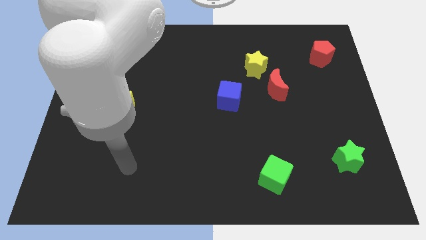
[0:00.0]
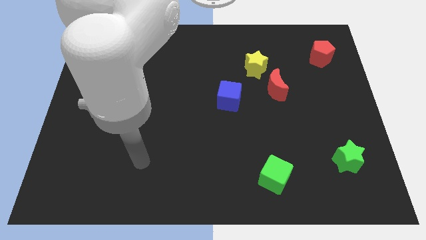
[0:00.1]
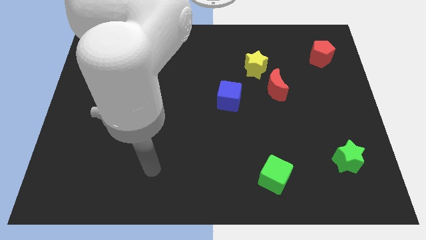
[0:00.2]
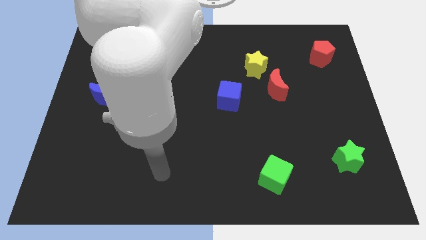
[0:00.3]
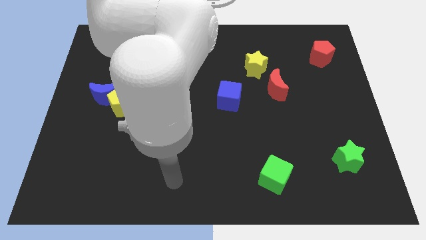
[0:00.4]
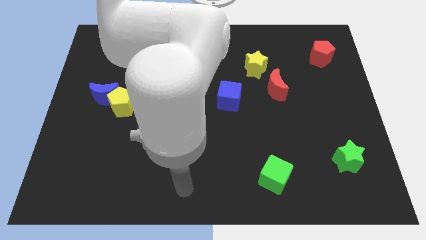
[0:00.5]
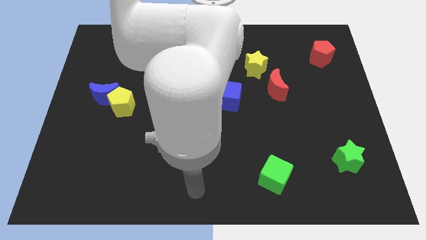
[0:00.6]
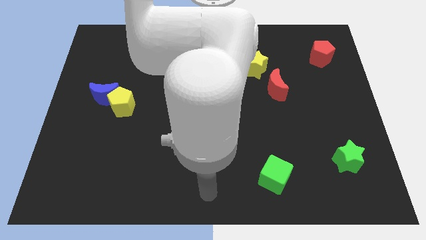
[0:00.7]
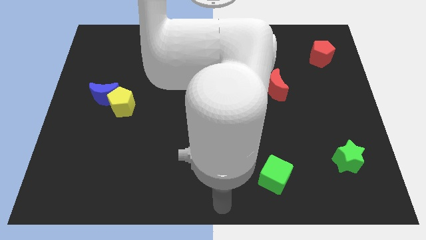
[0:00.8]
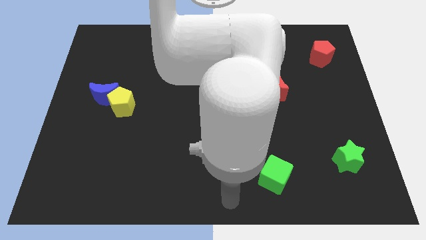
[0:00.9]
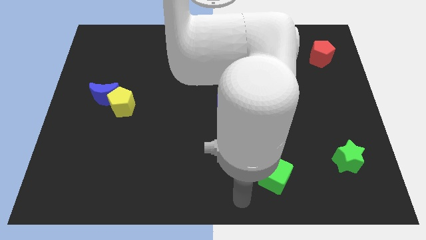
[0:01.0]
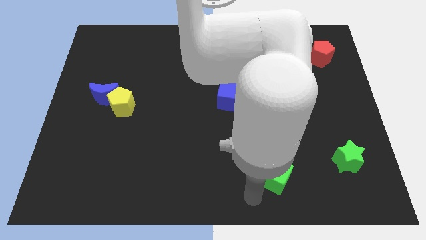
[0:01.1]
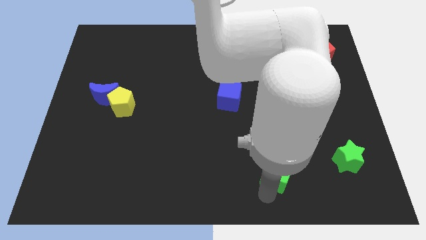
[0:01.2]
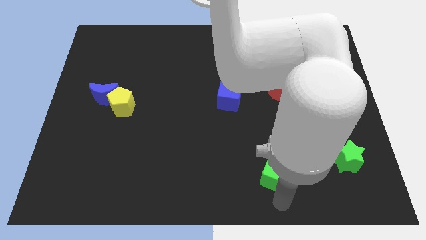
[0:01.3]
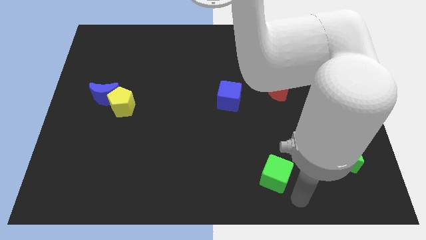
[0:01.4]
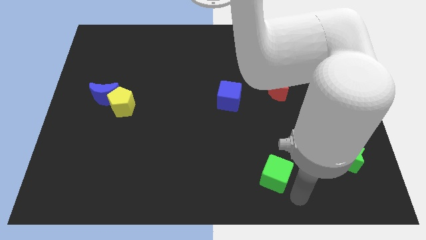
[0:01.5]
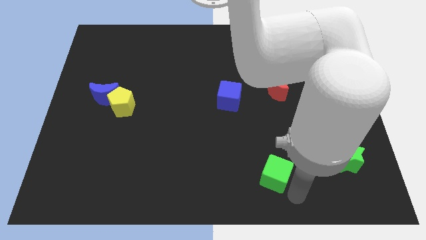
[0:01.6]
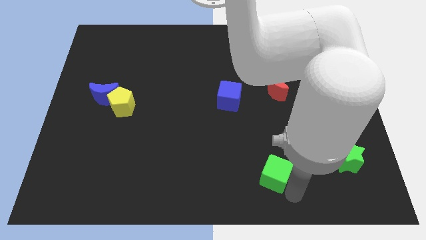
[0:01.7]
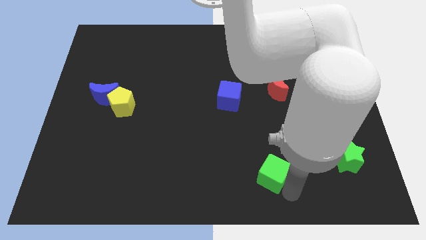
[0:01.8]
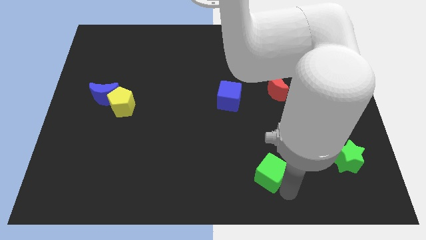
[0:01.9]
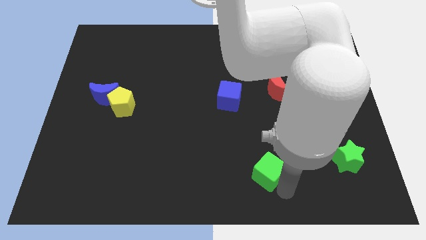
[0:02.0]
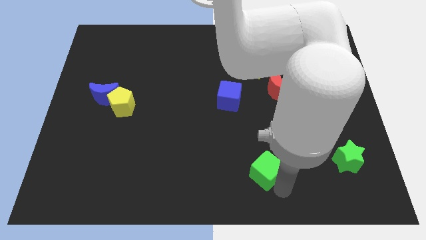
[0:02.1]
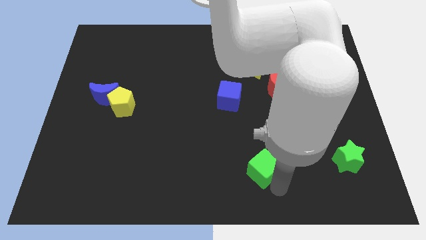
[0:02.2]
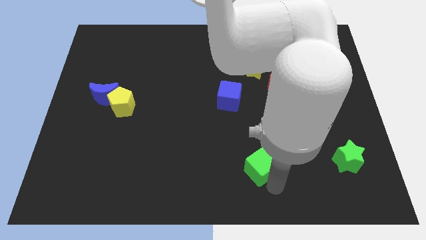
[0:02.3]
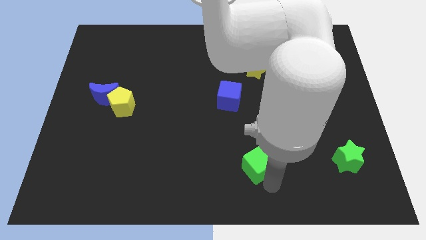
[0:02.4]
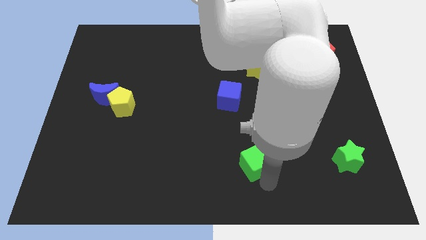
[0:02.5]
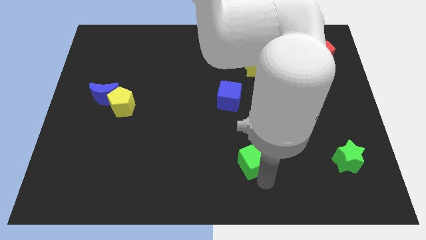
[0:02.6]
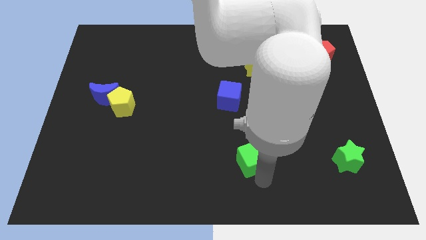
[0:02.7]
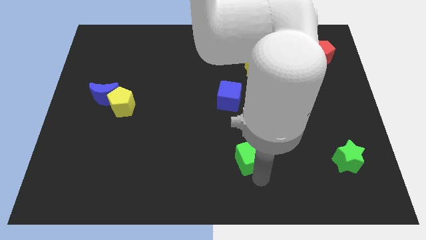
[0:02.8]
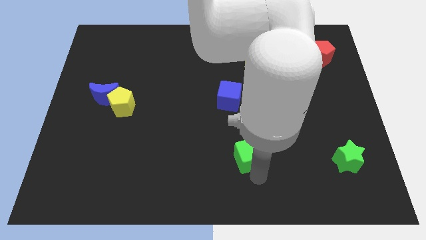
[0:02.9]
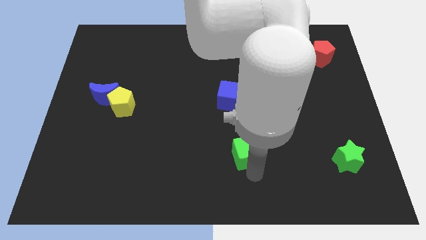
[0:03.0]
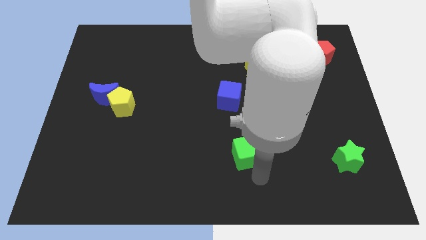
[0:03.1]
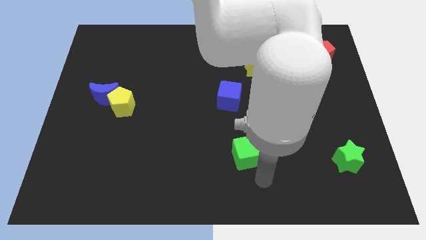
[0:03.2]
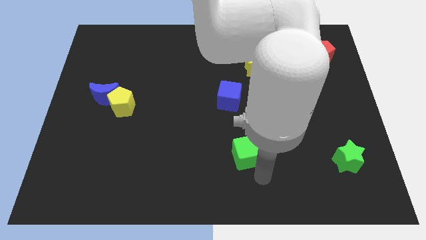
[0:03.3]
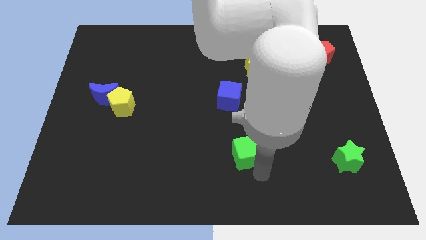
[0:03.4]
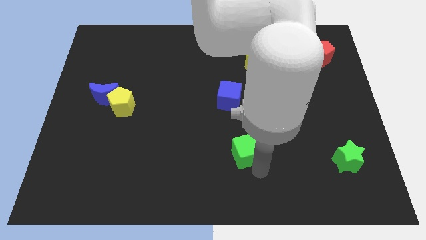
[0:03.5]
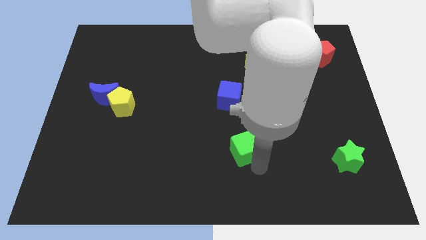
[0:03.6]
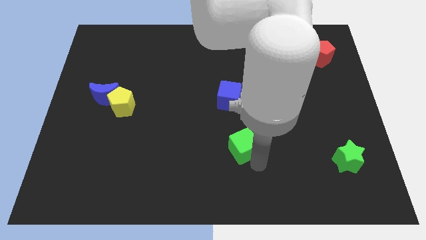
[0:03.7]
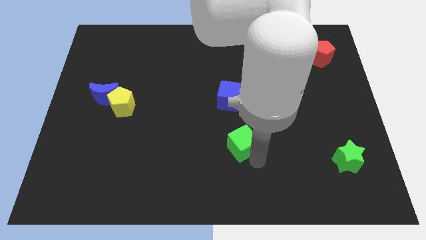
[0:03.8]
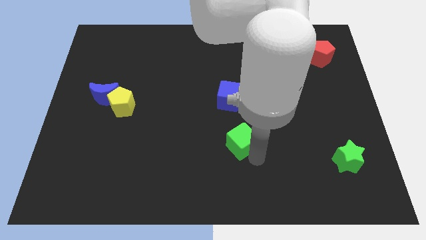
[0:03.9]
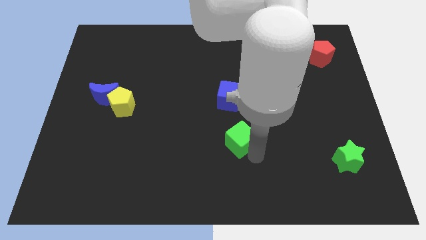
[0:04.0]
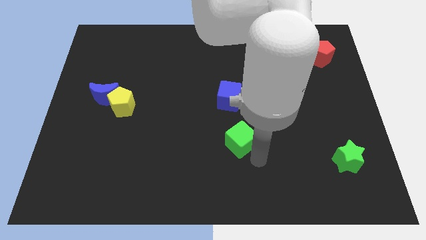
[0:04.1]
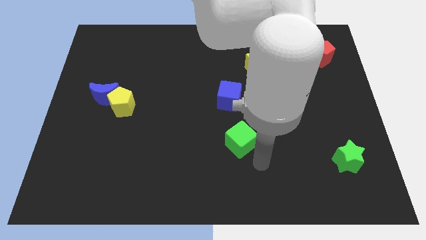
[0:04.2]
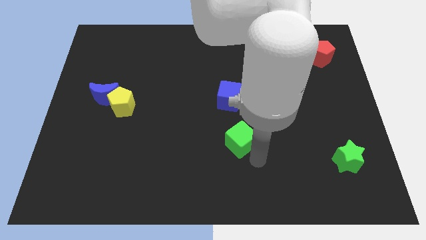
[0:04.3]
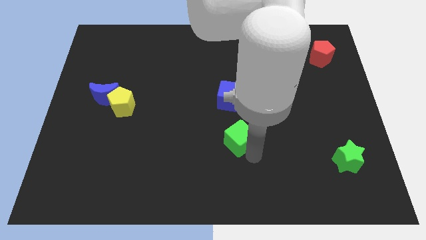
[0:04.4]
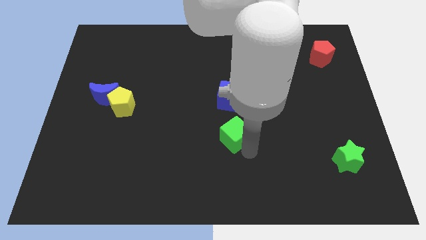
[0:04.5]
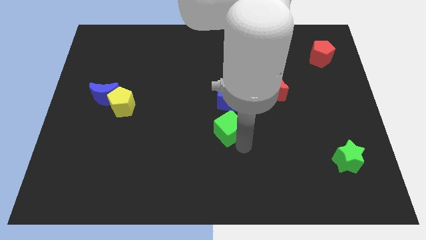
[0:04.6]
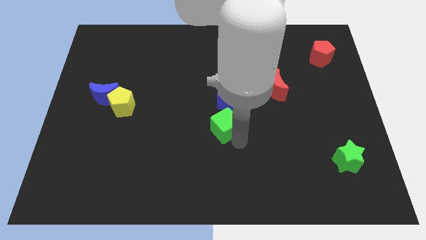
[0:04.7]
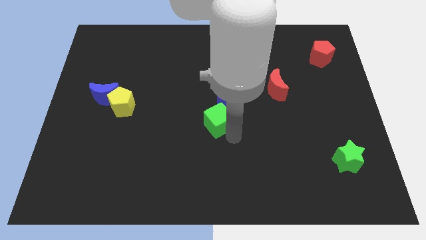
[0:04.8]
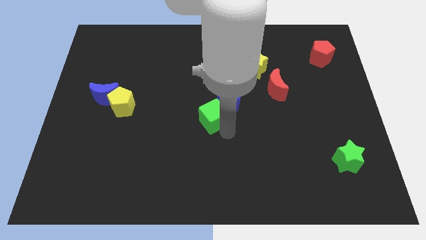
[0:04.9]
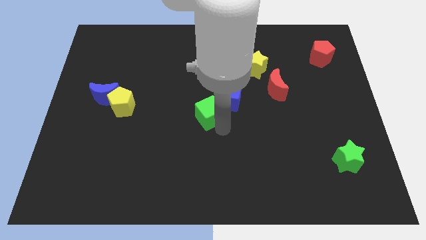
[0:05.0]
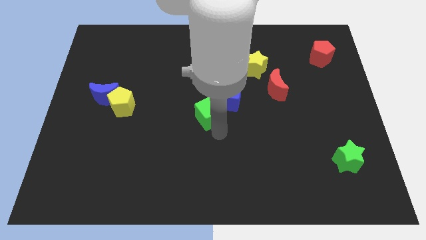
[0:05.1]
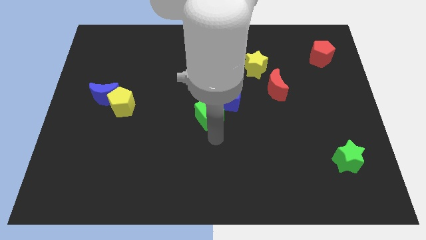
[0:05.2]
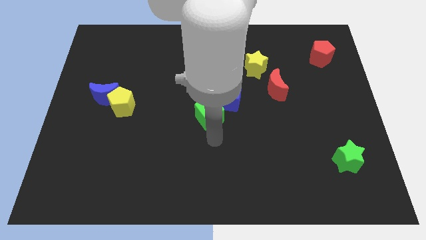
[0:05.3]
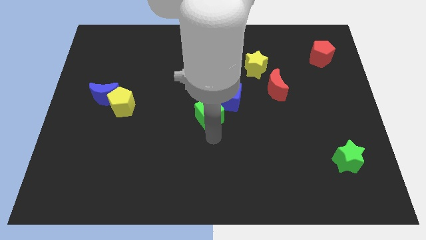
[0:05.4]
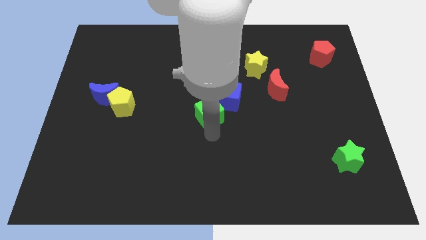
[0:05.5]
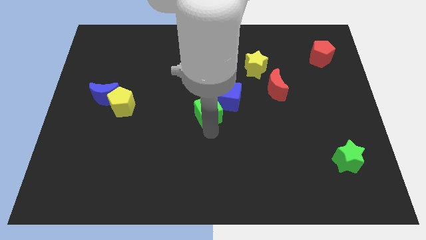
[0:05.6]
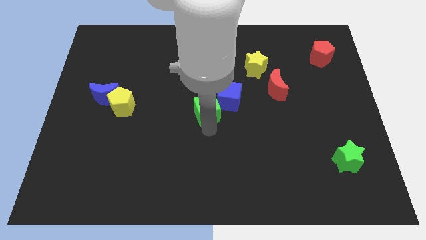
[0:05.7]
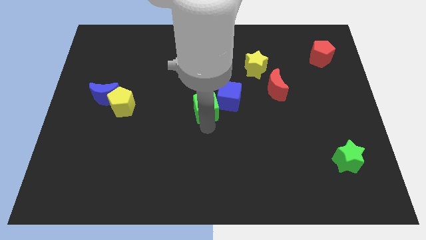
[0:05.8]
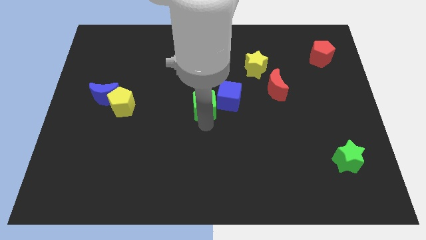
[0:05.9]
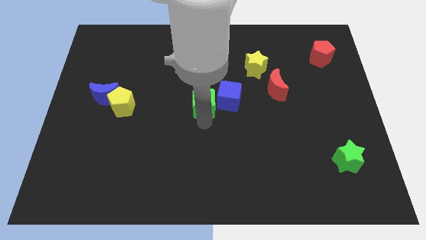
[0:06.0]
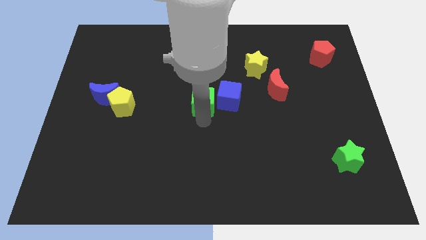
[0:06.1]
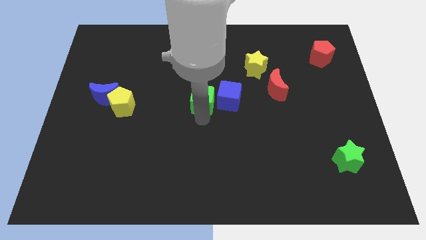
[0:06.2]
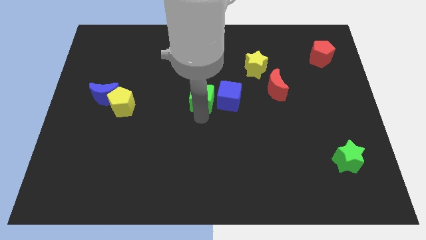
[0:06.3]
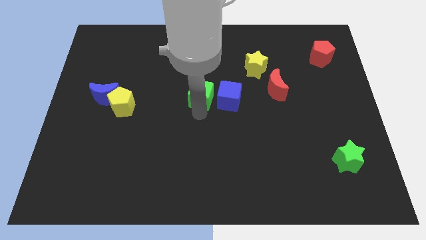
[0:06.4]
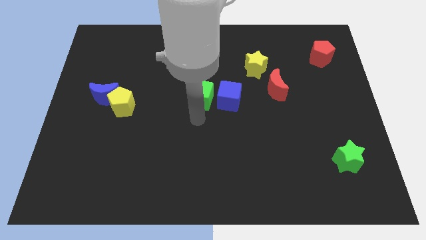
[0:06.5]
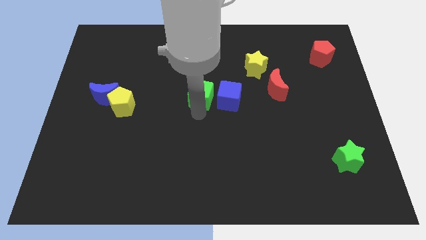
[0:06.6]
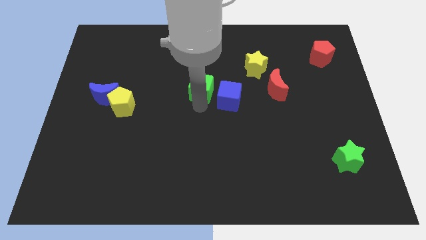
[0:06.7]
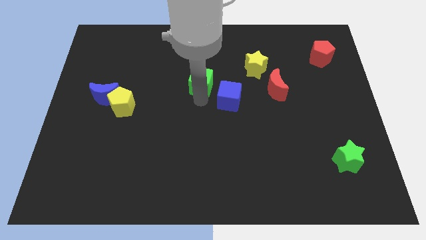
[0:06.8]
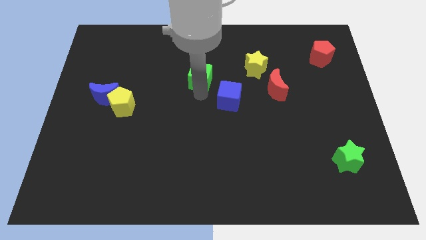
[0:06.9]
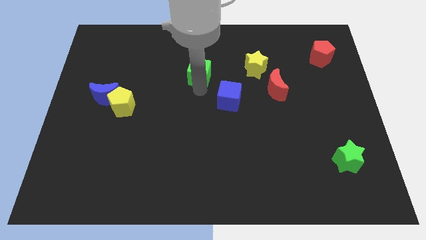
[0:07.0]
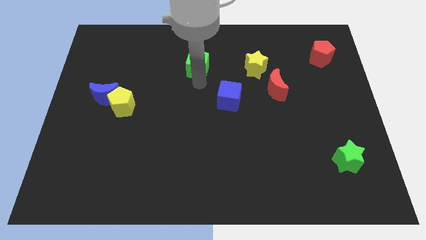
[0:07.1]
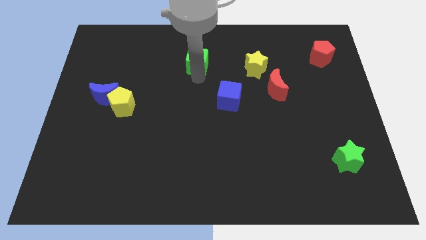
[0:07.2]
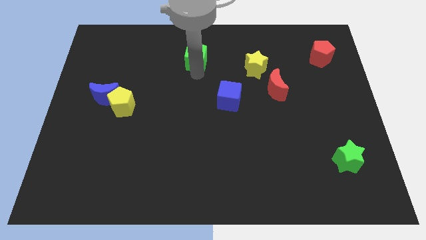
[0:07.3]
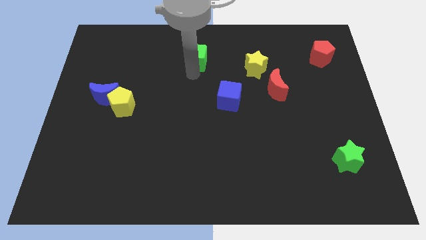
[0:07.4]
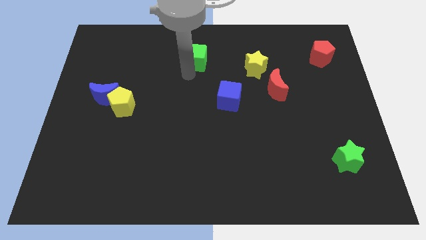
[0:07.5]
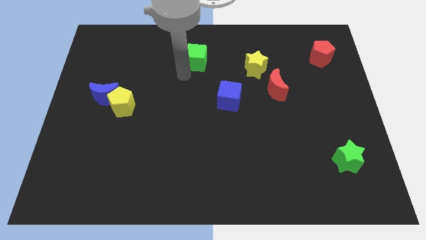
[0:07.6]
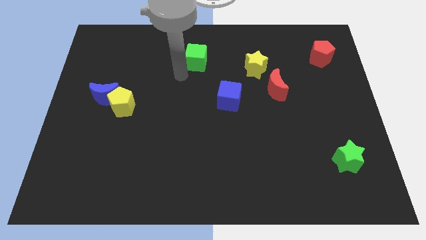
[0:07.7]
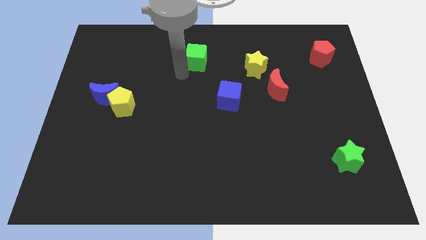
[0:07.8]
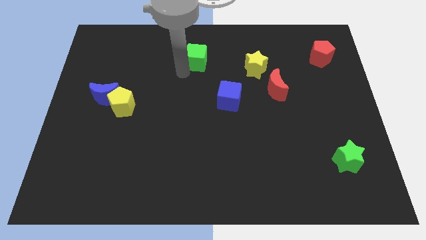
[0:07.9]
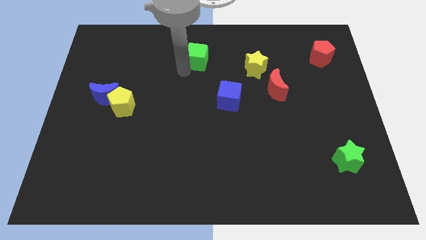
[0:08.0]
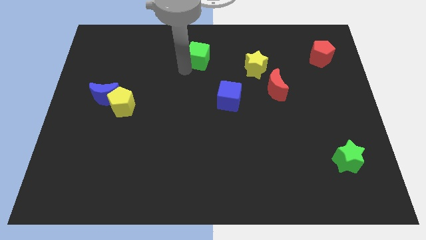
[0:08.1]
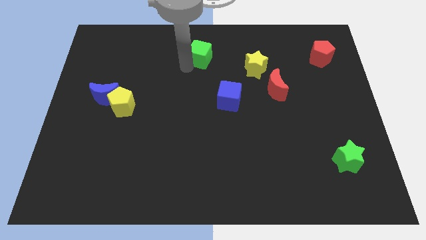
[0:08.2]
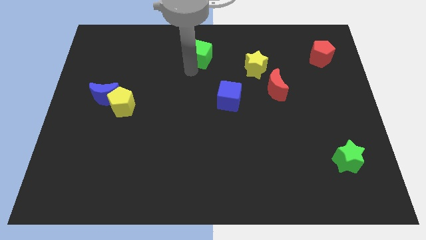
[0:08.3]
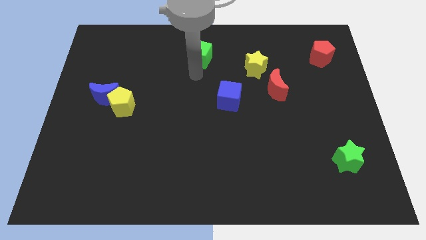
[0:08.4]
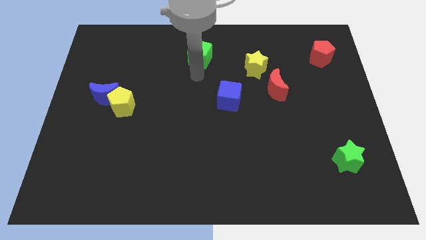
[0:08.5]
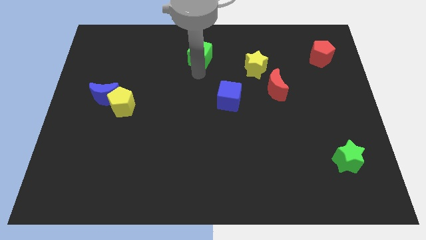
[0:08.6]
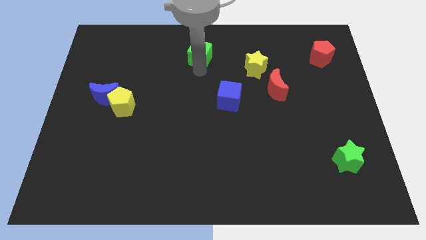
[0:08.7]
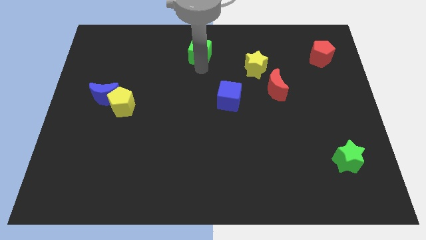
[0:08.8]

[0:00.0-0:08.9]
put the green cube to the towards your base
